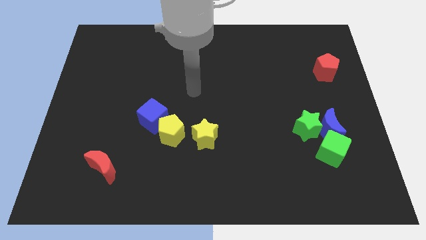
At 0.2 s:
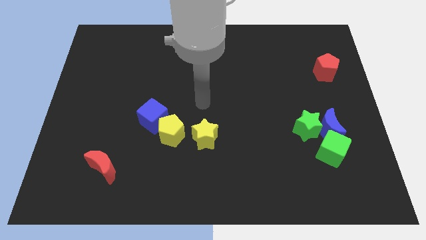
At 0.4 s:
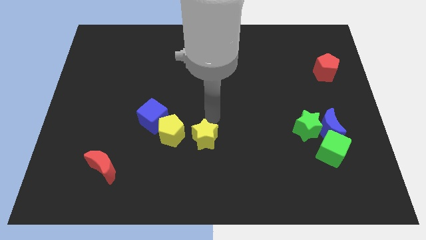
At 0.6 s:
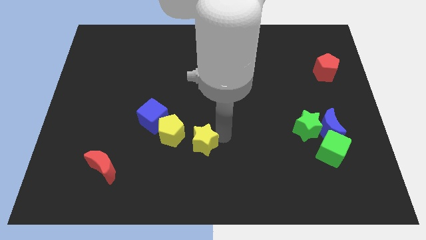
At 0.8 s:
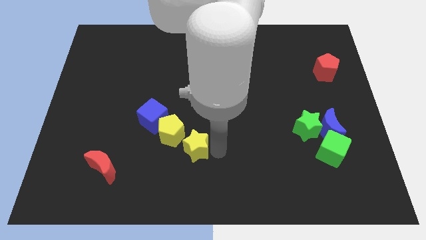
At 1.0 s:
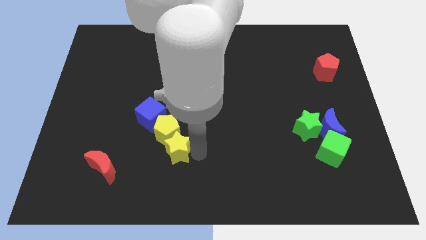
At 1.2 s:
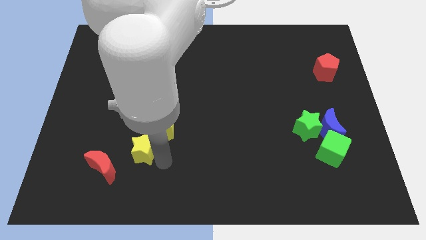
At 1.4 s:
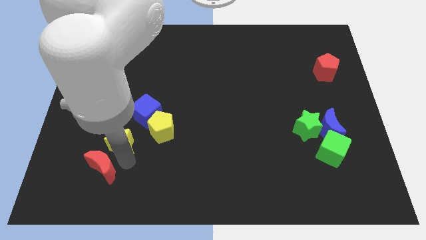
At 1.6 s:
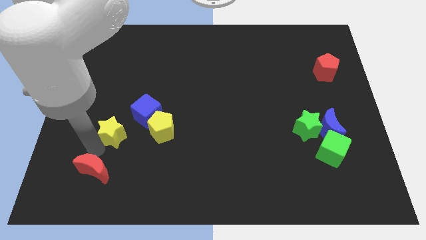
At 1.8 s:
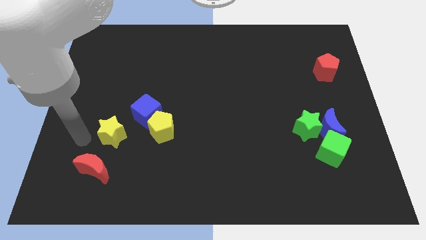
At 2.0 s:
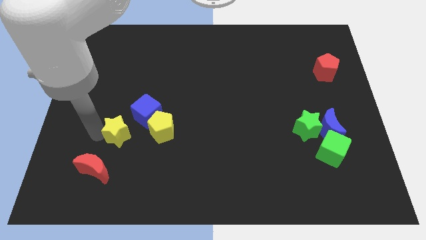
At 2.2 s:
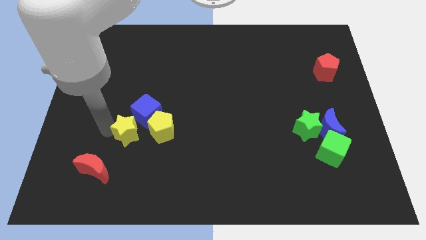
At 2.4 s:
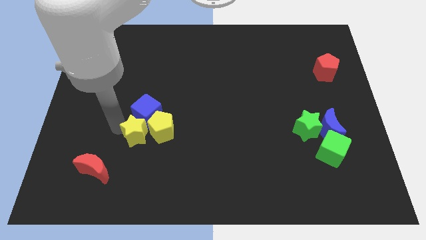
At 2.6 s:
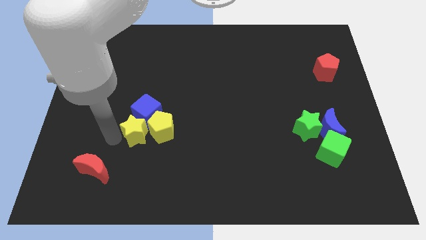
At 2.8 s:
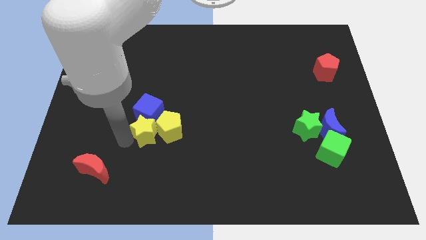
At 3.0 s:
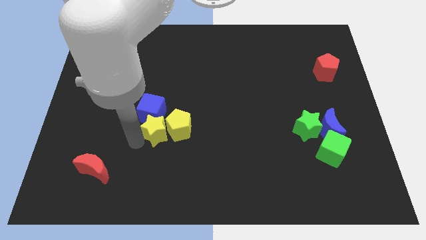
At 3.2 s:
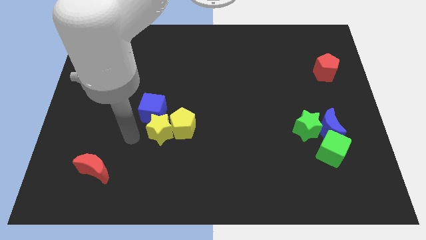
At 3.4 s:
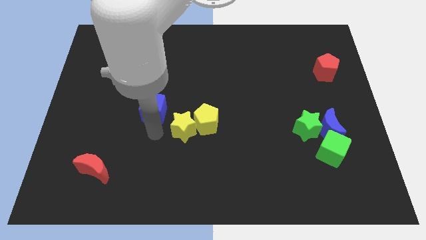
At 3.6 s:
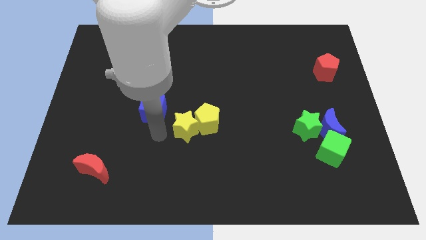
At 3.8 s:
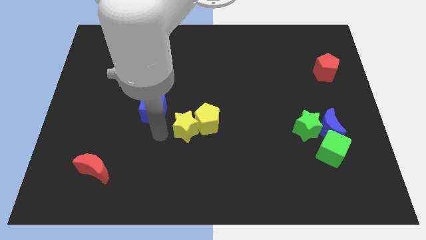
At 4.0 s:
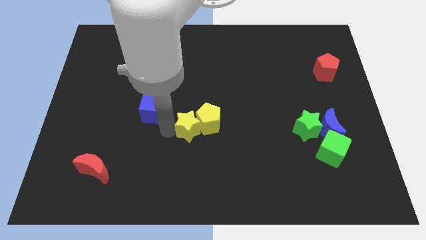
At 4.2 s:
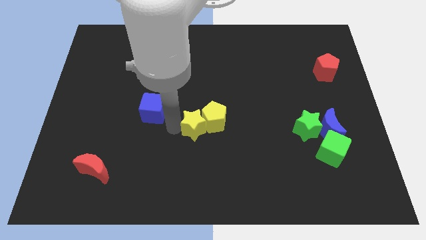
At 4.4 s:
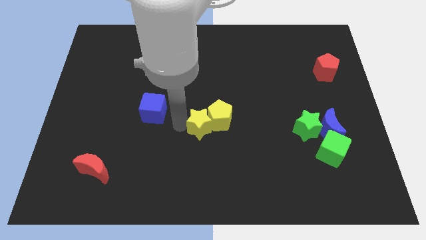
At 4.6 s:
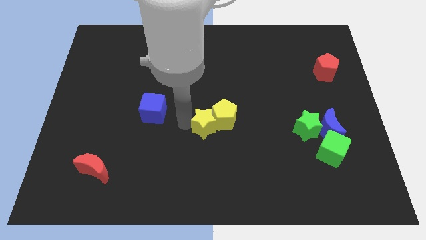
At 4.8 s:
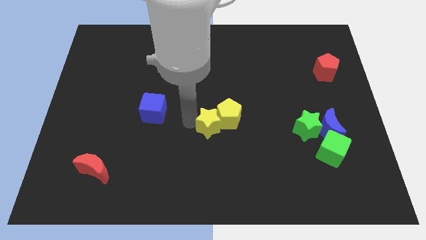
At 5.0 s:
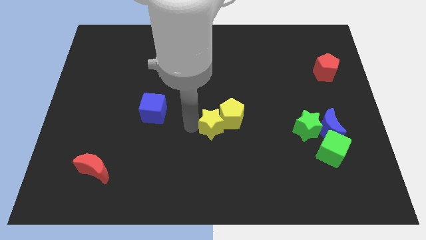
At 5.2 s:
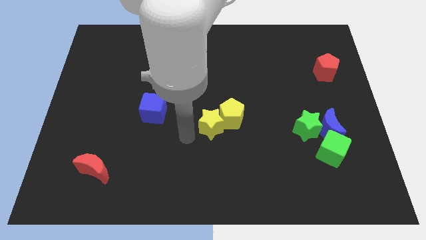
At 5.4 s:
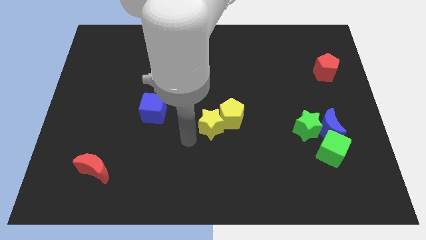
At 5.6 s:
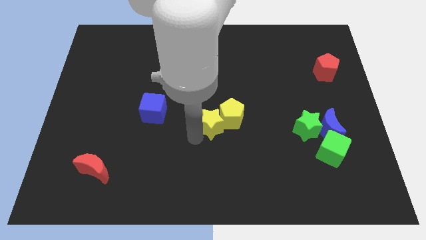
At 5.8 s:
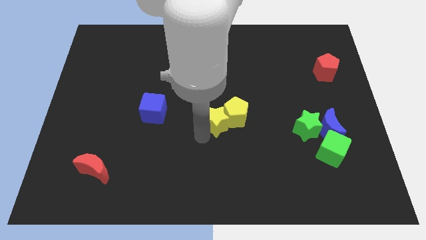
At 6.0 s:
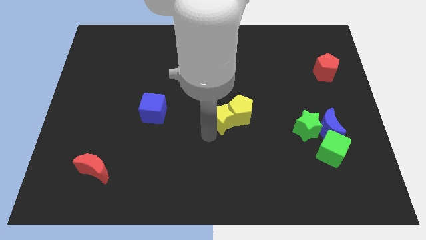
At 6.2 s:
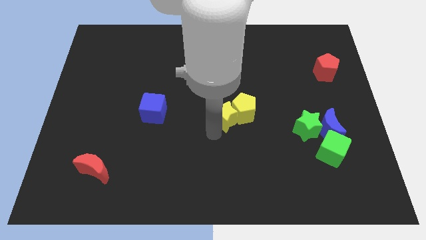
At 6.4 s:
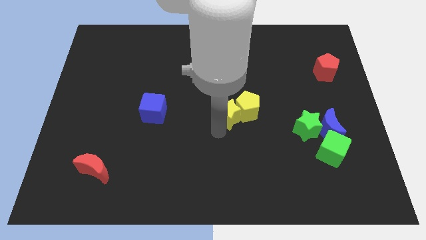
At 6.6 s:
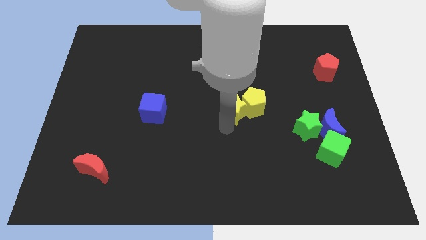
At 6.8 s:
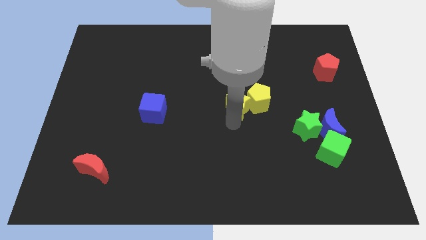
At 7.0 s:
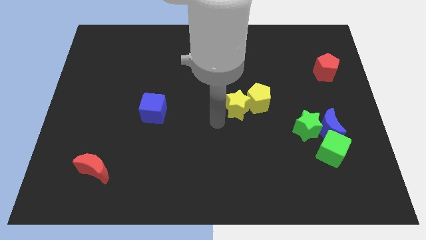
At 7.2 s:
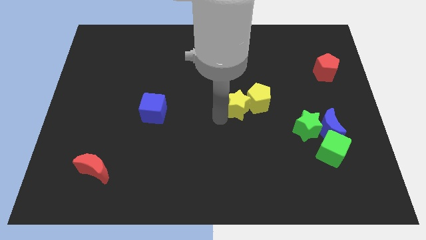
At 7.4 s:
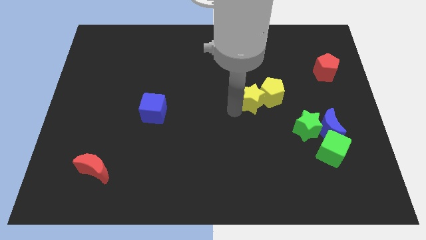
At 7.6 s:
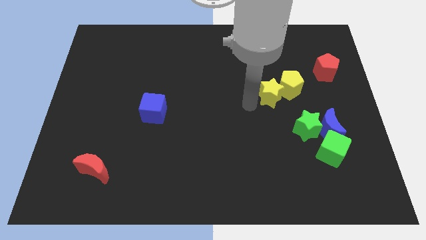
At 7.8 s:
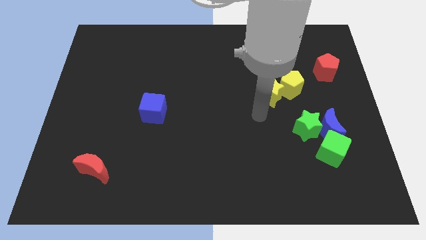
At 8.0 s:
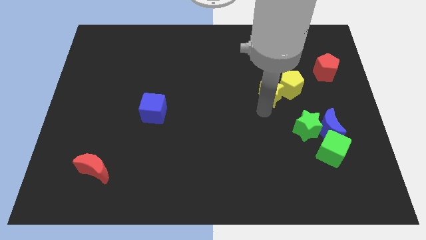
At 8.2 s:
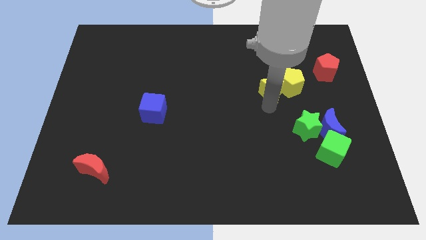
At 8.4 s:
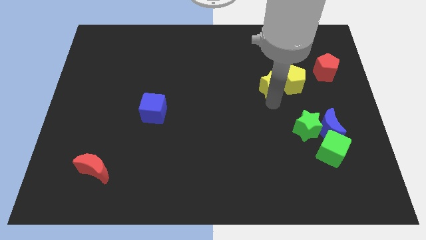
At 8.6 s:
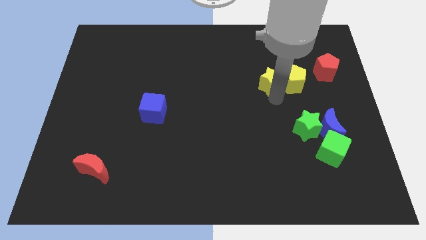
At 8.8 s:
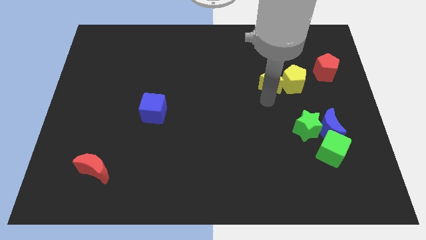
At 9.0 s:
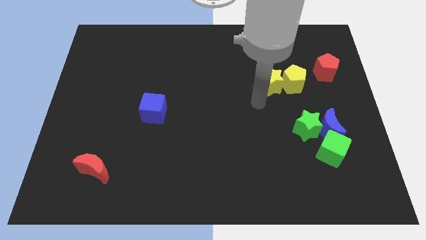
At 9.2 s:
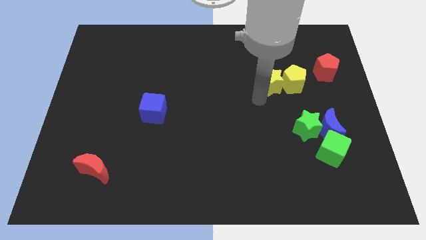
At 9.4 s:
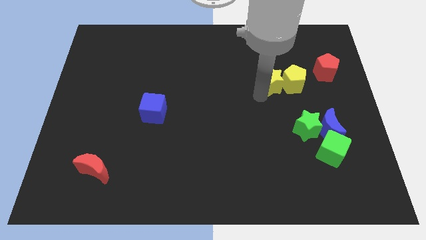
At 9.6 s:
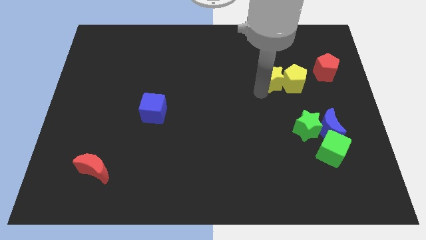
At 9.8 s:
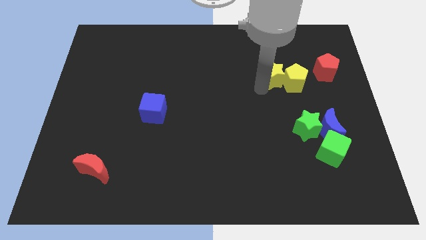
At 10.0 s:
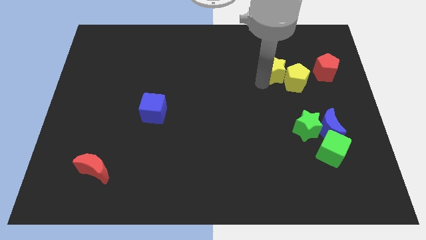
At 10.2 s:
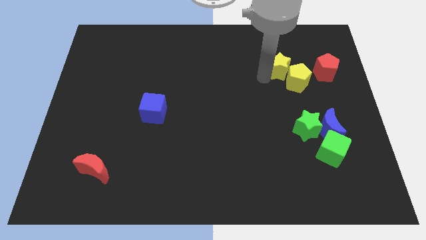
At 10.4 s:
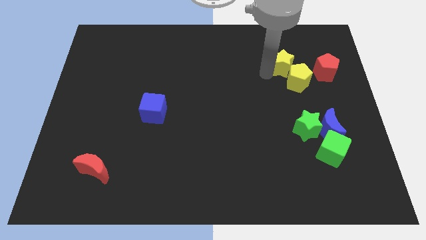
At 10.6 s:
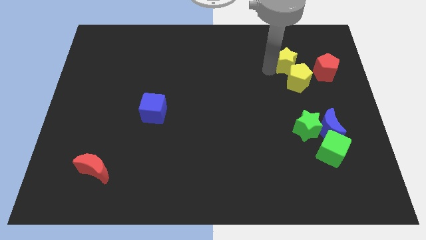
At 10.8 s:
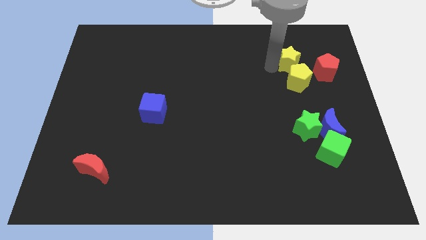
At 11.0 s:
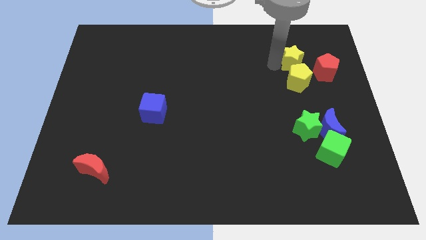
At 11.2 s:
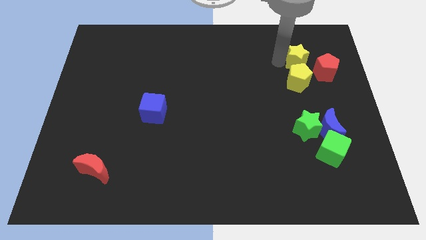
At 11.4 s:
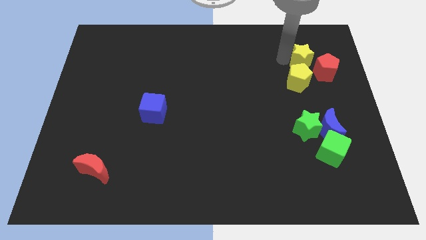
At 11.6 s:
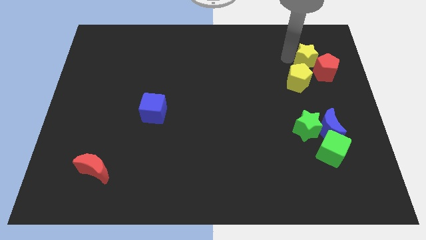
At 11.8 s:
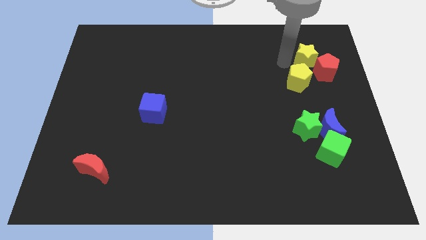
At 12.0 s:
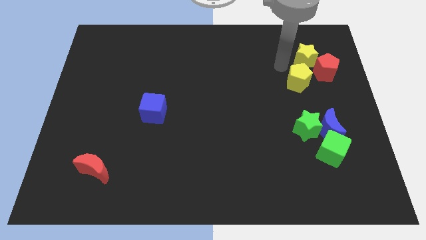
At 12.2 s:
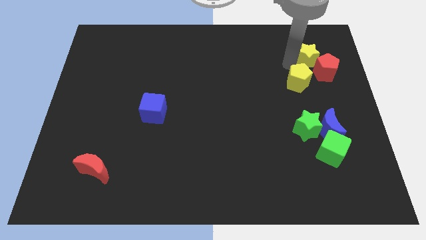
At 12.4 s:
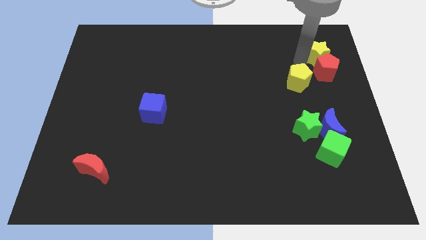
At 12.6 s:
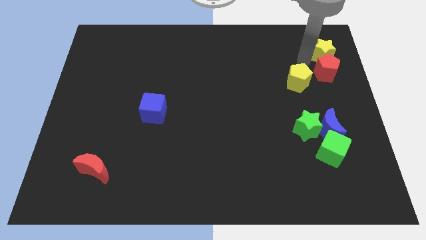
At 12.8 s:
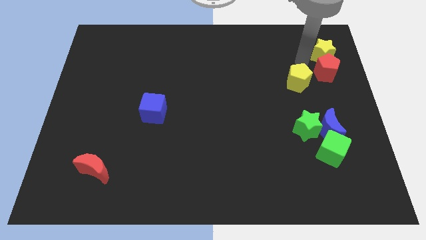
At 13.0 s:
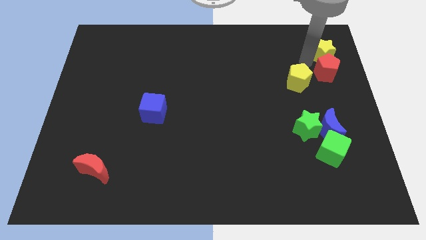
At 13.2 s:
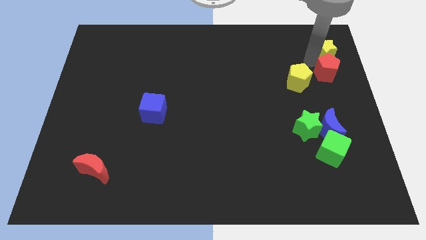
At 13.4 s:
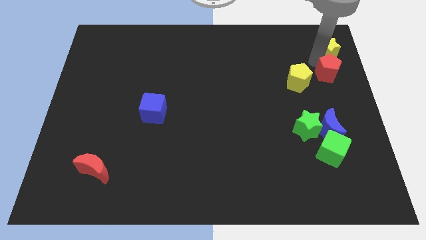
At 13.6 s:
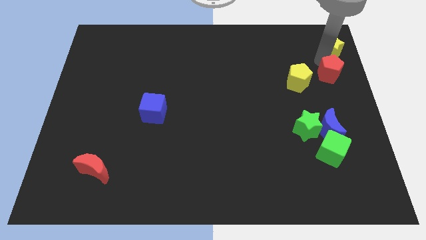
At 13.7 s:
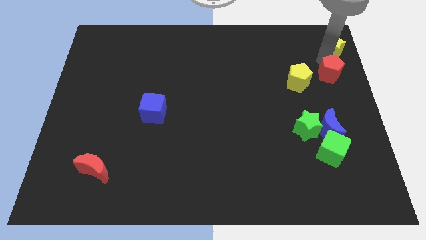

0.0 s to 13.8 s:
put the yellow star to the top right corner
